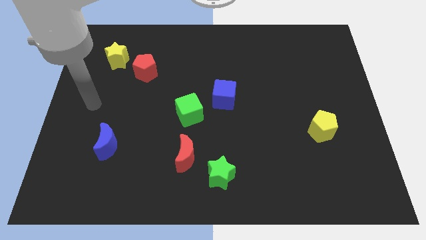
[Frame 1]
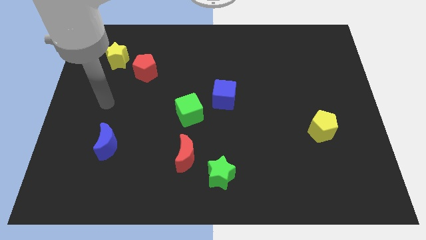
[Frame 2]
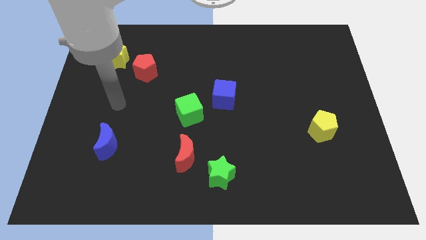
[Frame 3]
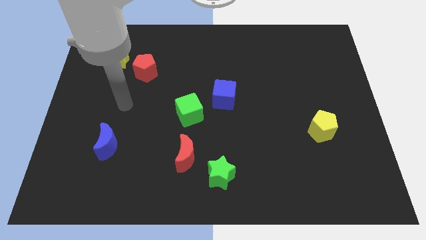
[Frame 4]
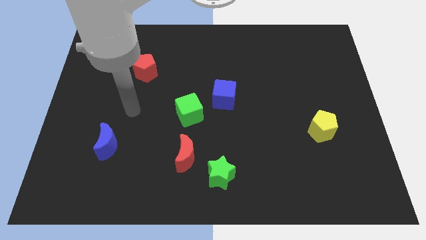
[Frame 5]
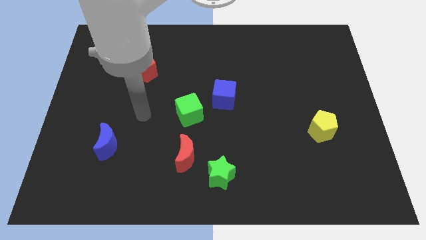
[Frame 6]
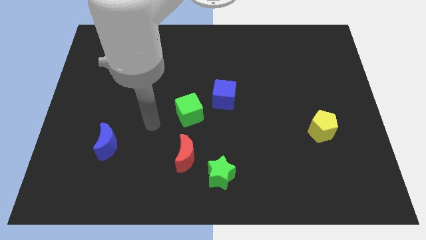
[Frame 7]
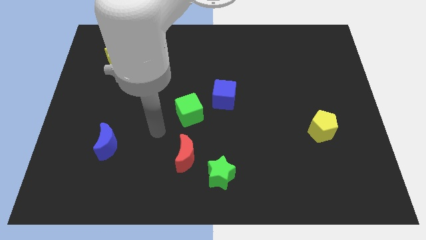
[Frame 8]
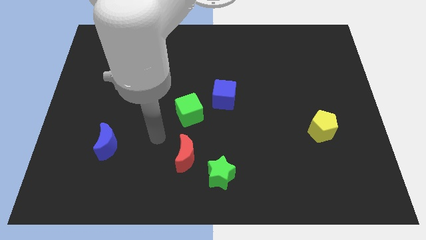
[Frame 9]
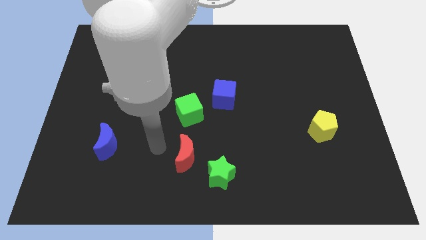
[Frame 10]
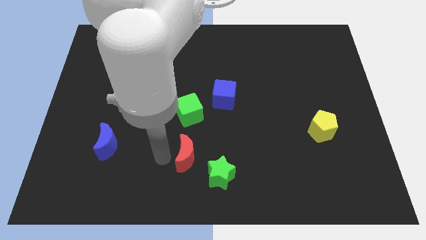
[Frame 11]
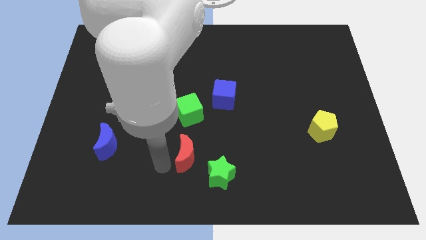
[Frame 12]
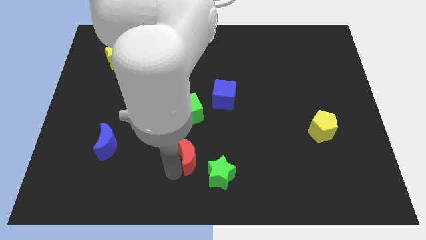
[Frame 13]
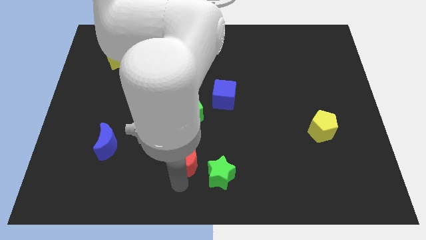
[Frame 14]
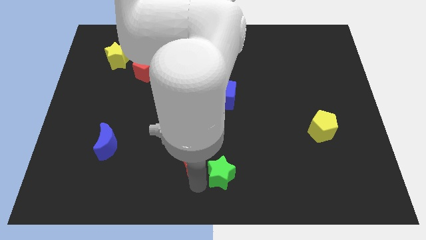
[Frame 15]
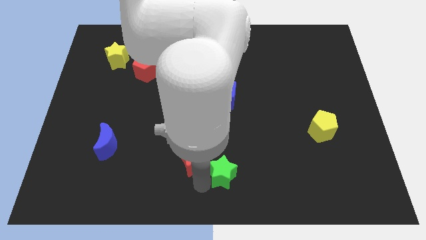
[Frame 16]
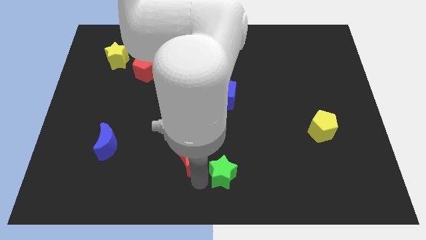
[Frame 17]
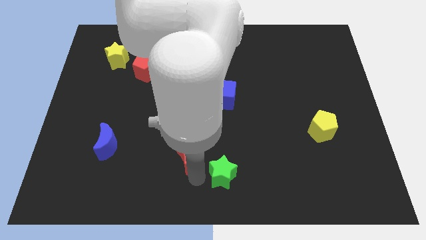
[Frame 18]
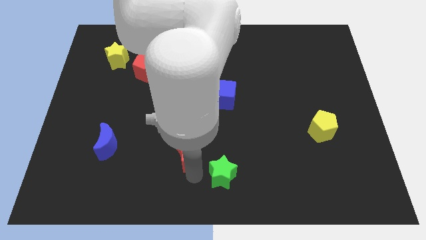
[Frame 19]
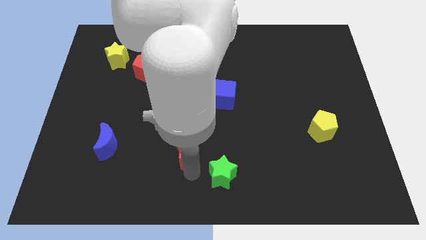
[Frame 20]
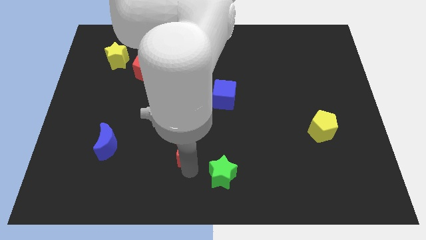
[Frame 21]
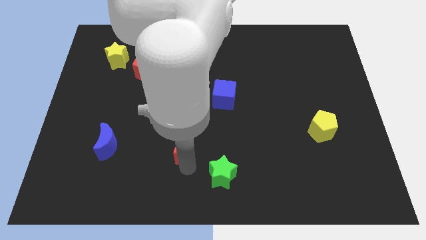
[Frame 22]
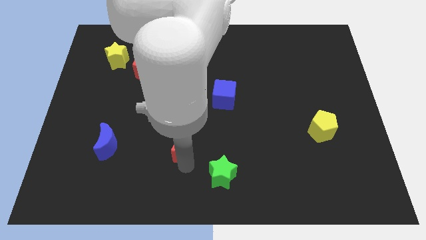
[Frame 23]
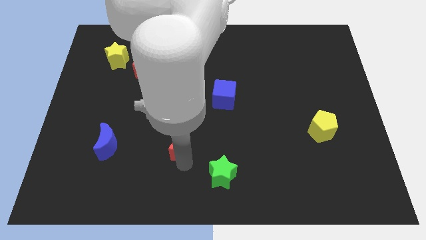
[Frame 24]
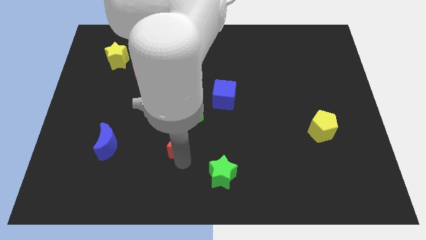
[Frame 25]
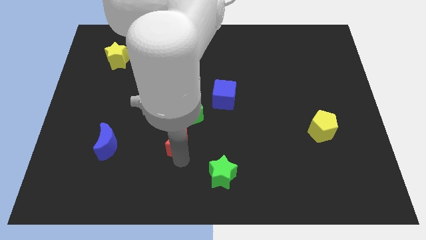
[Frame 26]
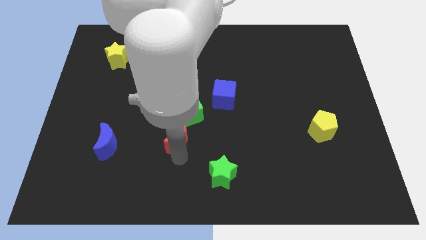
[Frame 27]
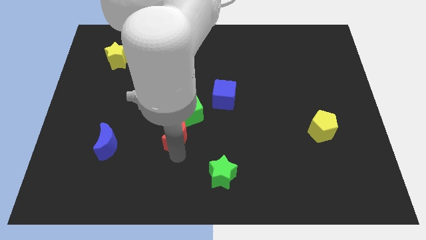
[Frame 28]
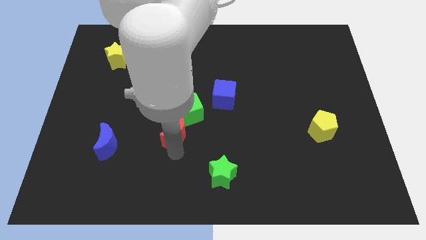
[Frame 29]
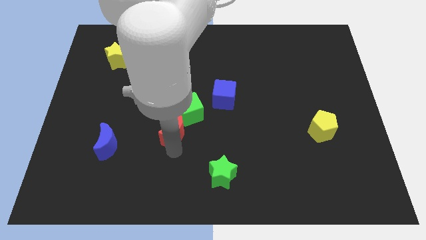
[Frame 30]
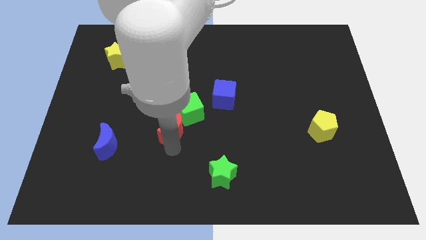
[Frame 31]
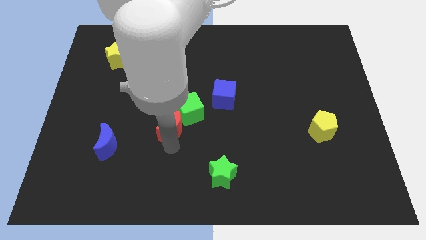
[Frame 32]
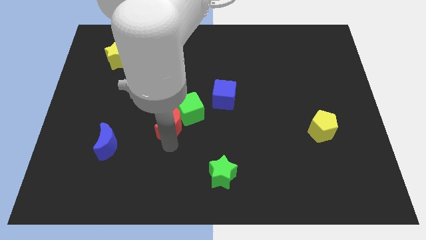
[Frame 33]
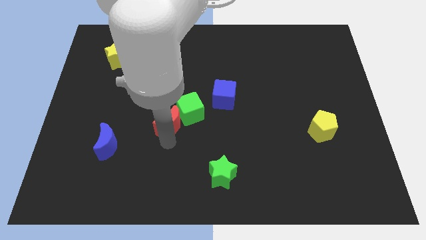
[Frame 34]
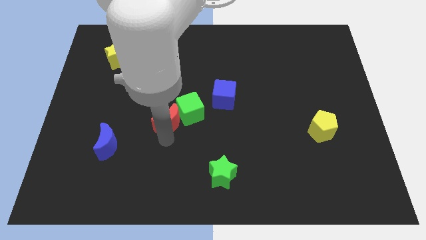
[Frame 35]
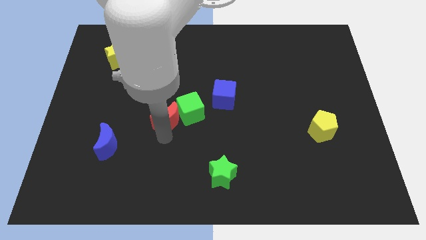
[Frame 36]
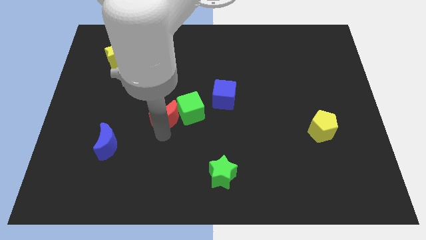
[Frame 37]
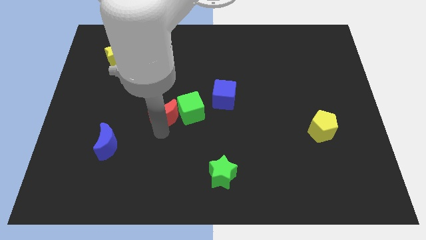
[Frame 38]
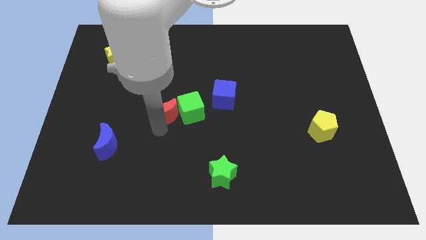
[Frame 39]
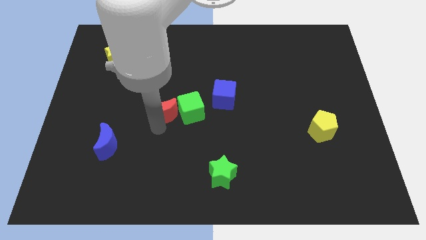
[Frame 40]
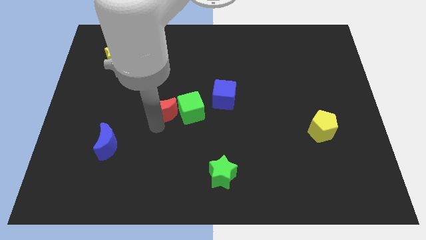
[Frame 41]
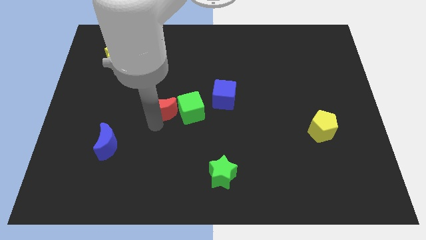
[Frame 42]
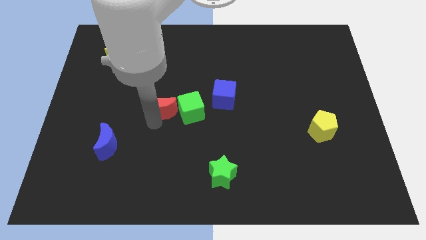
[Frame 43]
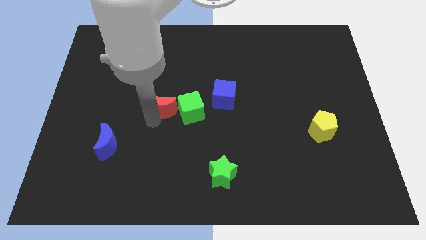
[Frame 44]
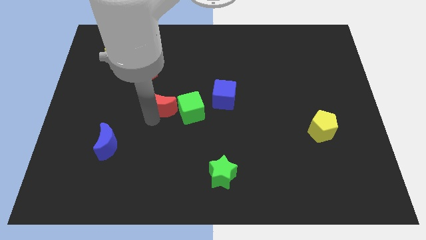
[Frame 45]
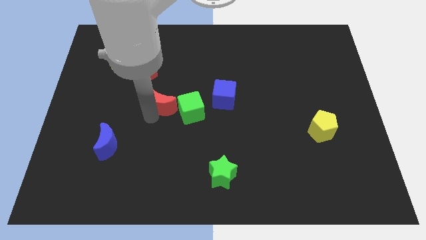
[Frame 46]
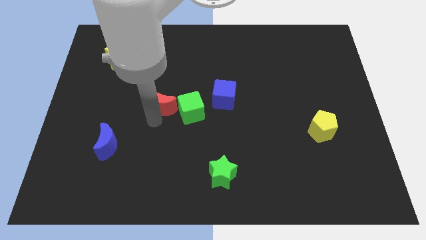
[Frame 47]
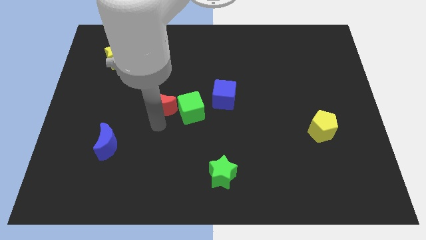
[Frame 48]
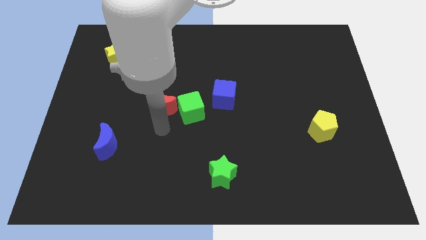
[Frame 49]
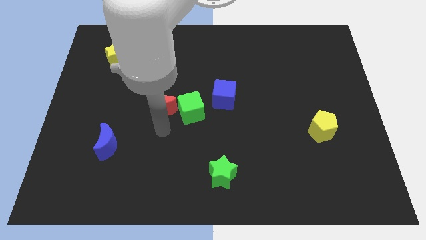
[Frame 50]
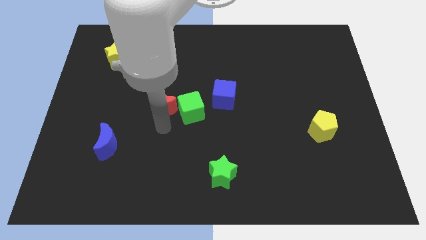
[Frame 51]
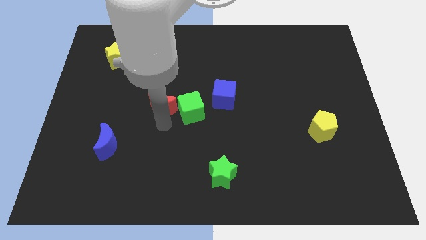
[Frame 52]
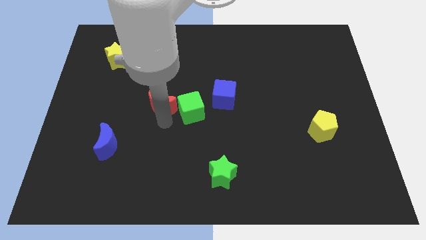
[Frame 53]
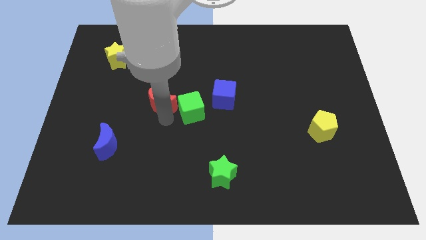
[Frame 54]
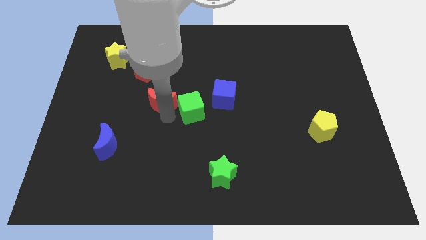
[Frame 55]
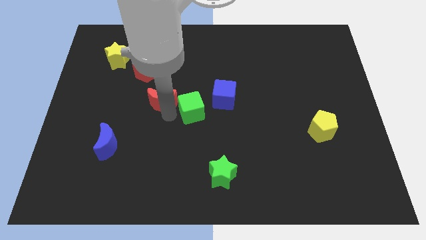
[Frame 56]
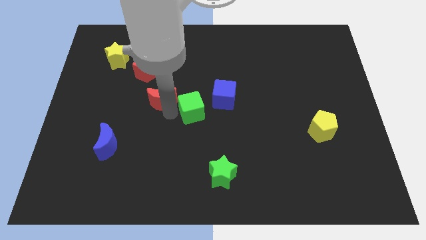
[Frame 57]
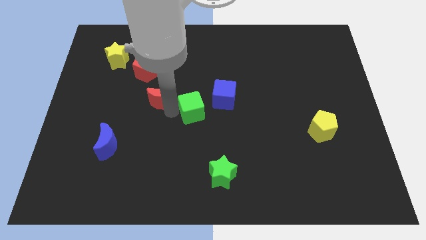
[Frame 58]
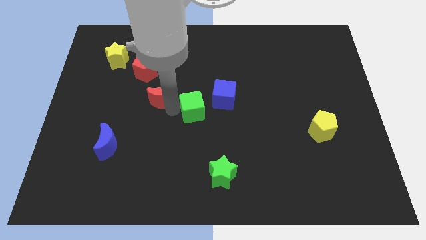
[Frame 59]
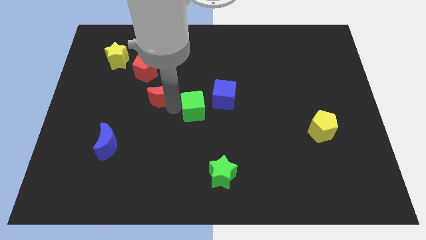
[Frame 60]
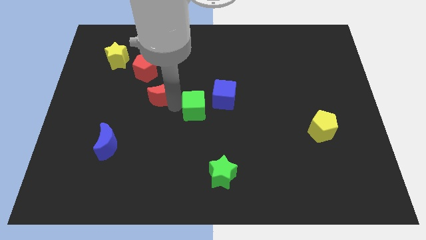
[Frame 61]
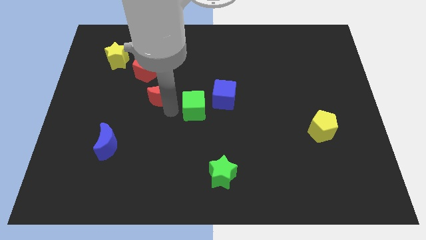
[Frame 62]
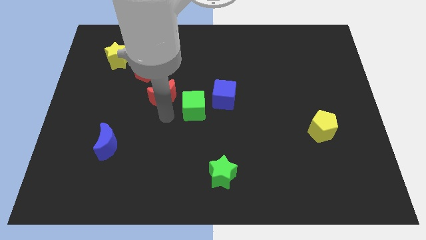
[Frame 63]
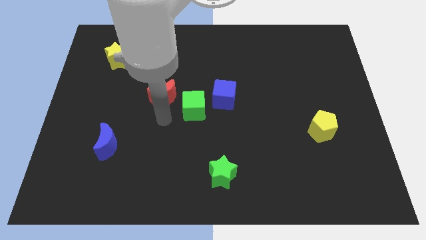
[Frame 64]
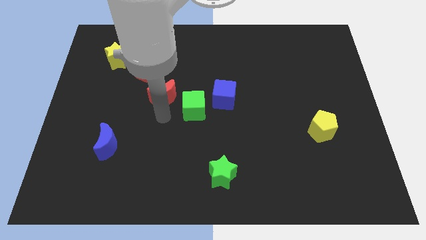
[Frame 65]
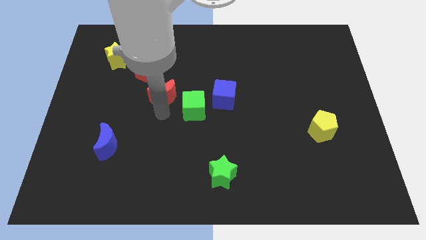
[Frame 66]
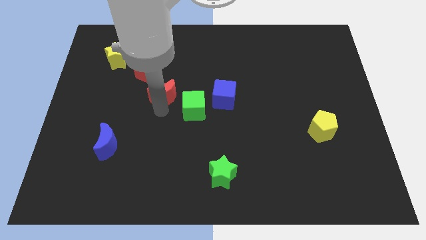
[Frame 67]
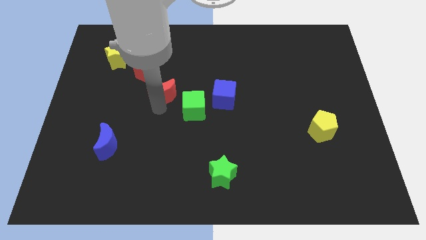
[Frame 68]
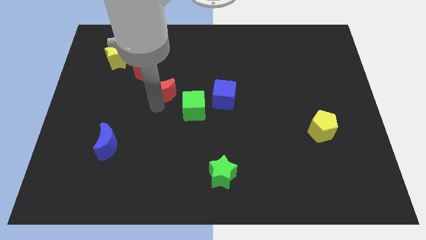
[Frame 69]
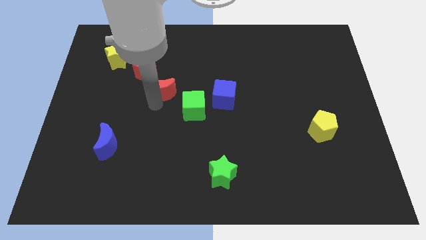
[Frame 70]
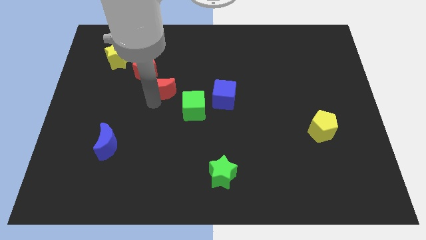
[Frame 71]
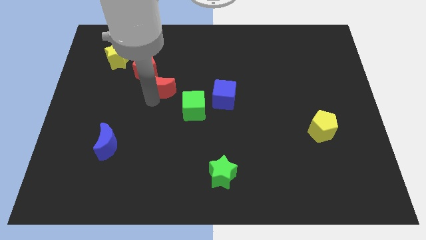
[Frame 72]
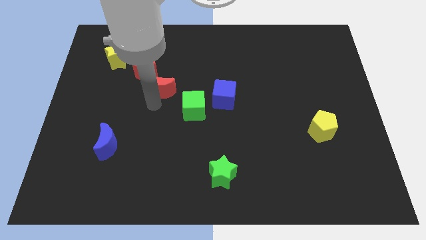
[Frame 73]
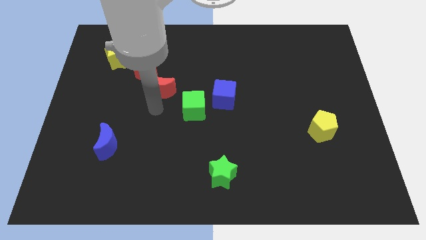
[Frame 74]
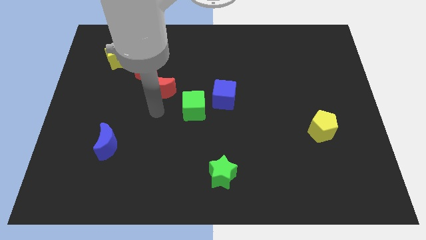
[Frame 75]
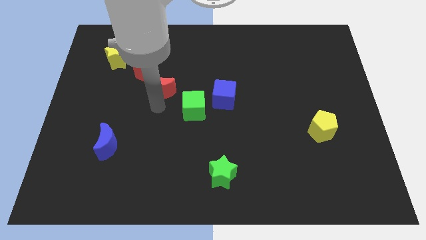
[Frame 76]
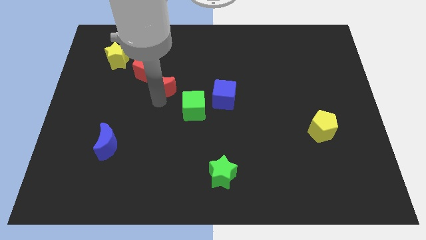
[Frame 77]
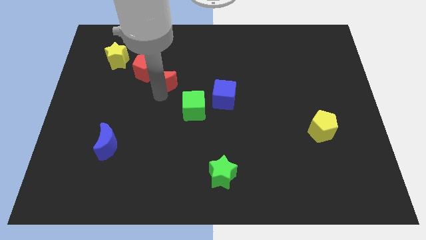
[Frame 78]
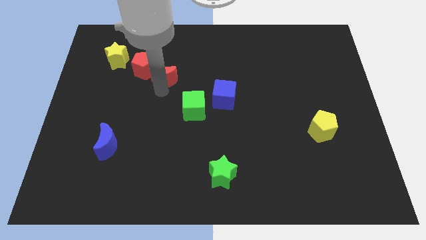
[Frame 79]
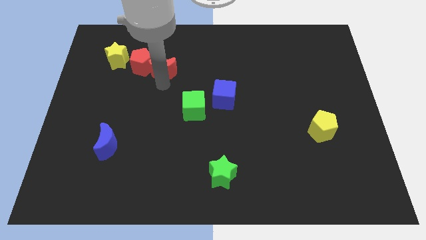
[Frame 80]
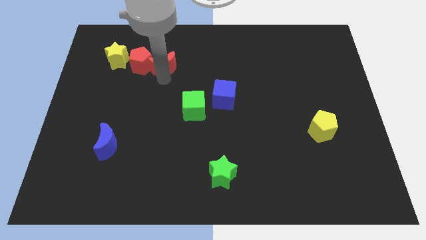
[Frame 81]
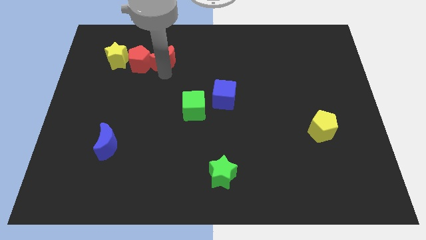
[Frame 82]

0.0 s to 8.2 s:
put the red moon diagonally up and to the right of the red pentagon
